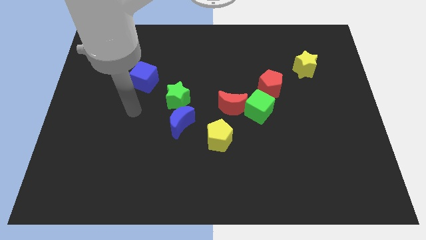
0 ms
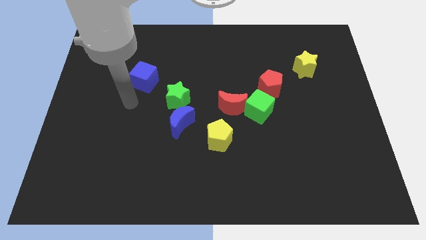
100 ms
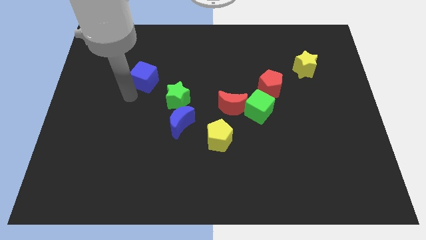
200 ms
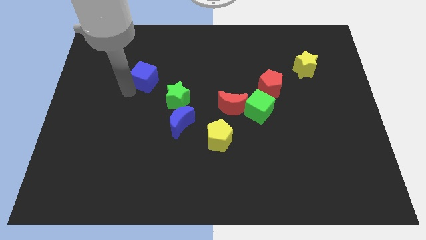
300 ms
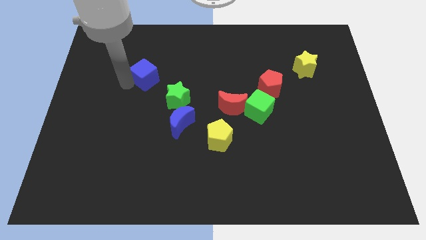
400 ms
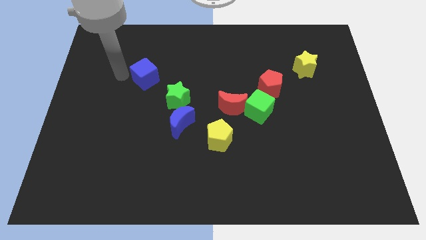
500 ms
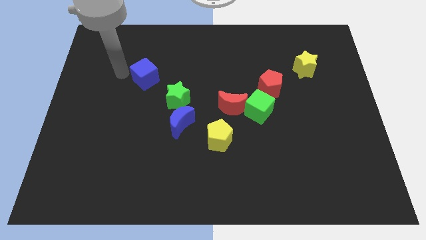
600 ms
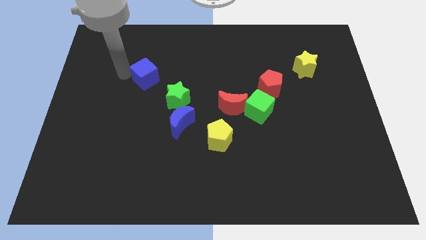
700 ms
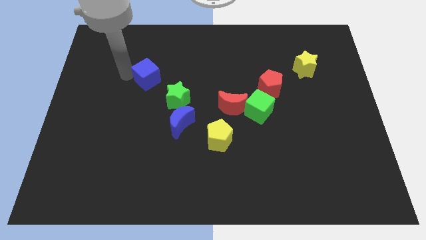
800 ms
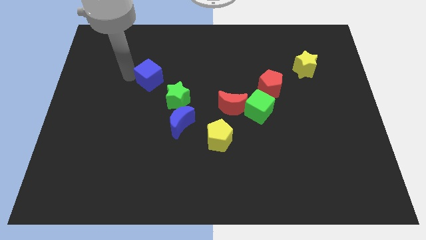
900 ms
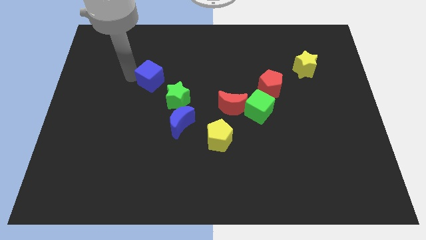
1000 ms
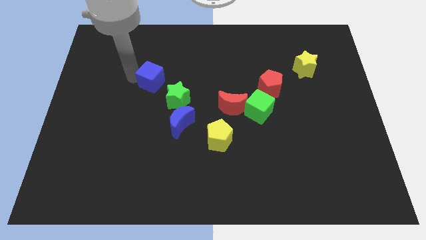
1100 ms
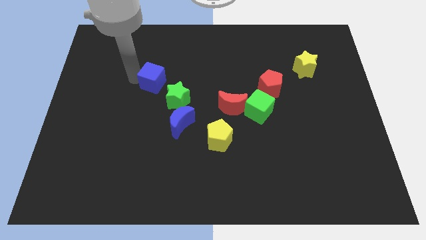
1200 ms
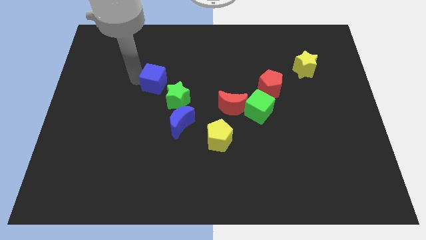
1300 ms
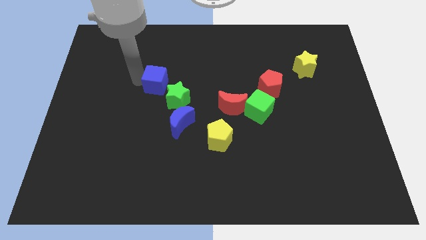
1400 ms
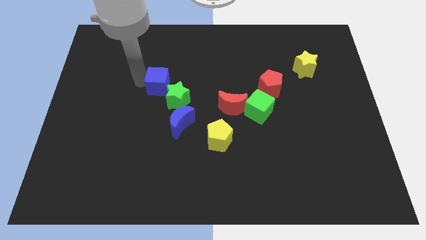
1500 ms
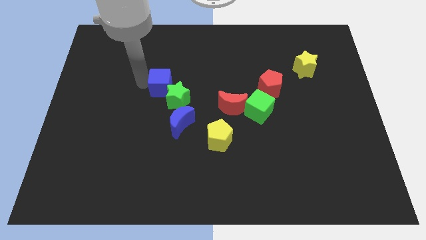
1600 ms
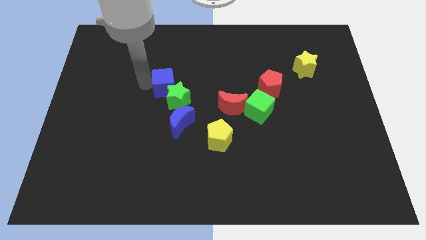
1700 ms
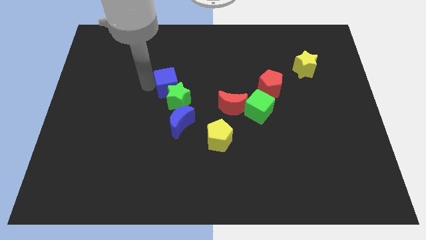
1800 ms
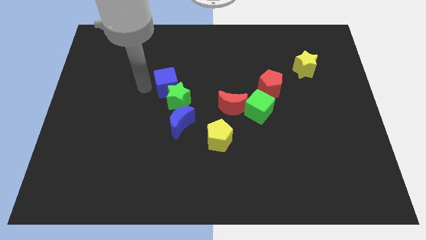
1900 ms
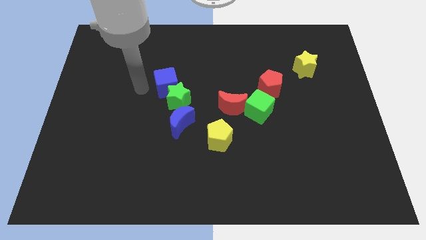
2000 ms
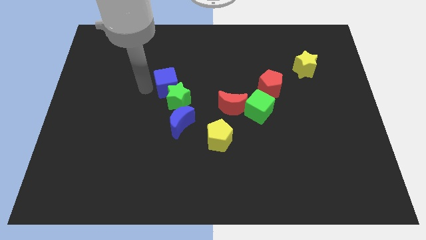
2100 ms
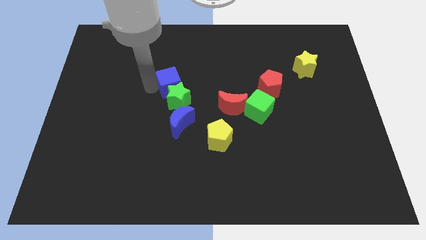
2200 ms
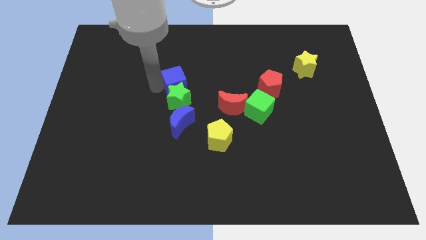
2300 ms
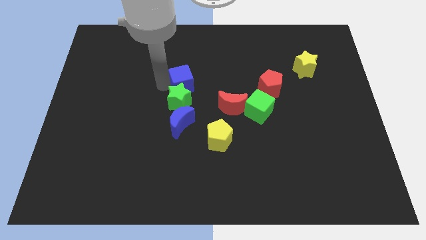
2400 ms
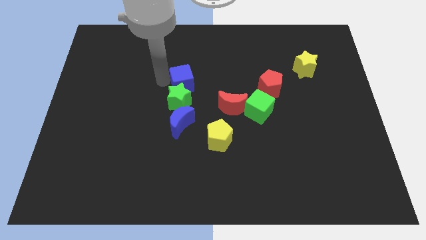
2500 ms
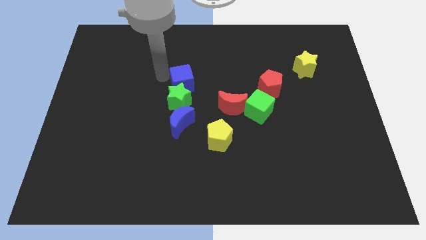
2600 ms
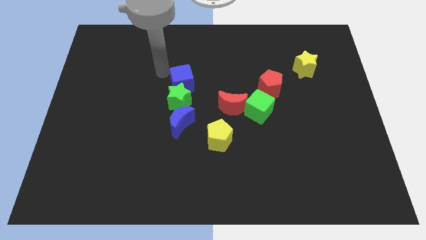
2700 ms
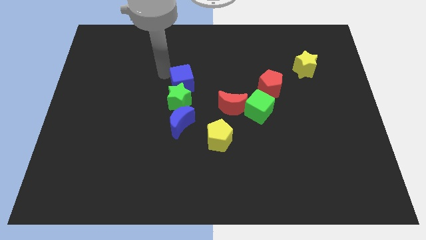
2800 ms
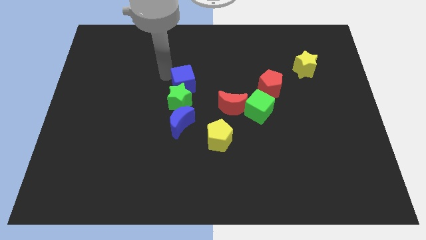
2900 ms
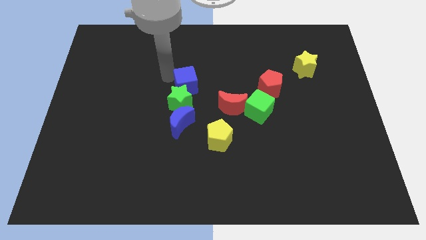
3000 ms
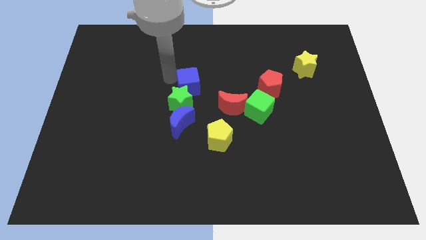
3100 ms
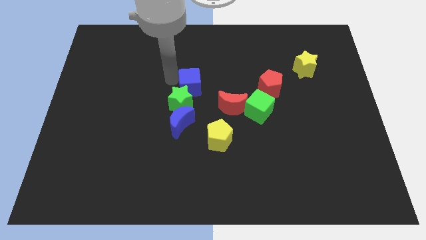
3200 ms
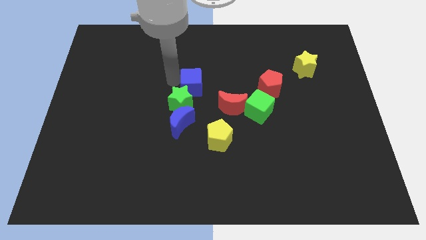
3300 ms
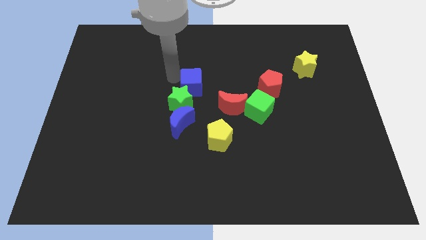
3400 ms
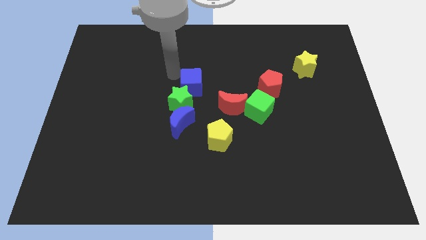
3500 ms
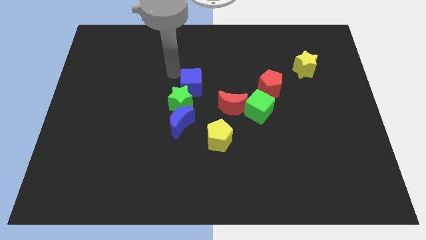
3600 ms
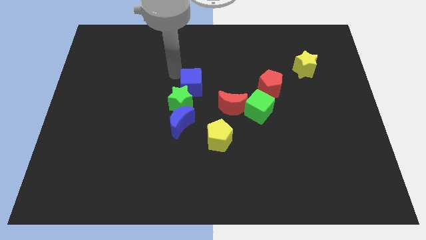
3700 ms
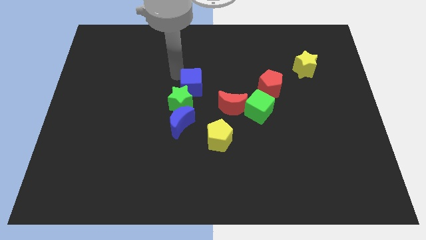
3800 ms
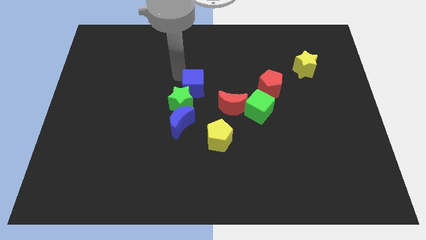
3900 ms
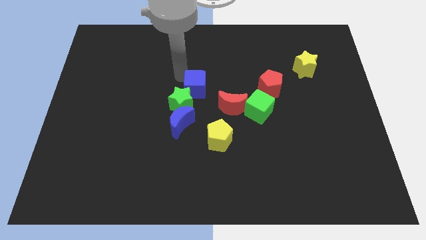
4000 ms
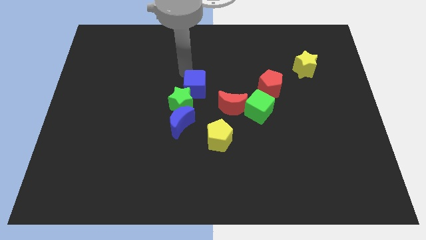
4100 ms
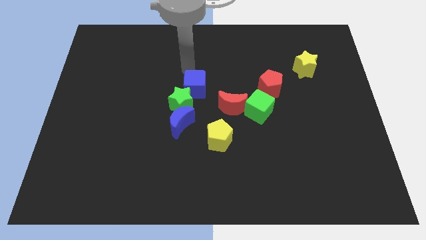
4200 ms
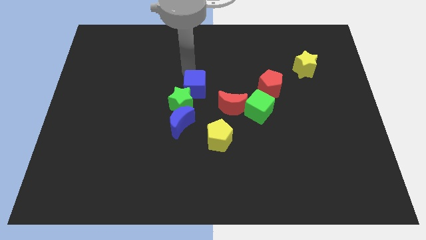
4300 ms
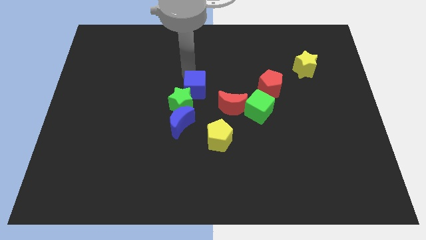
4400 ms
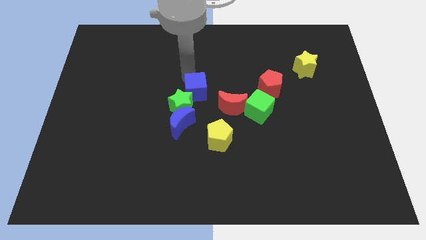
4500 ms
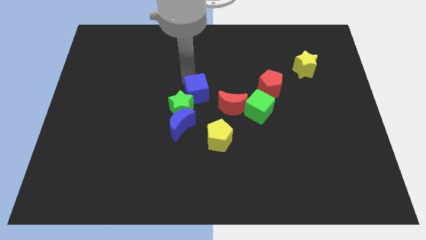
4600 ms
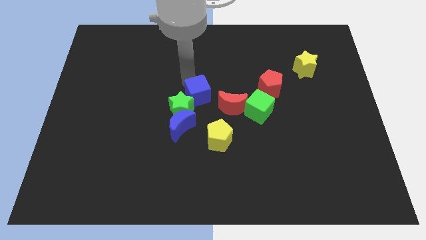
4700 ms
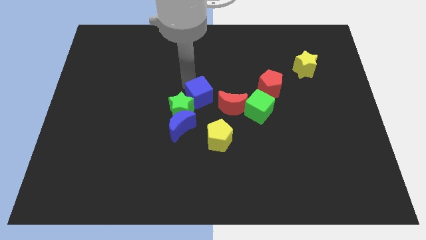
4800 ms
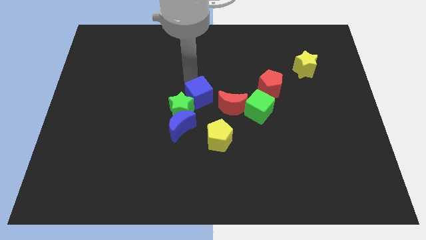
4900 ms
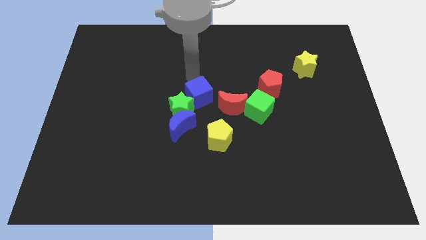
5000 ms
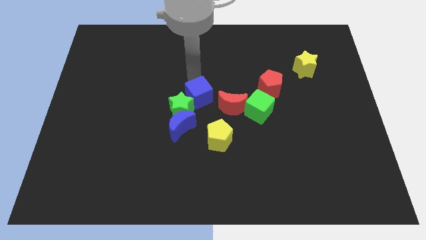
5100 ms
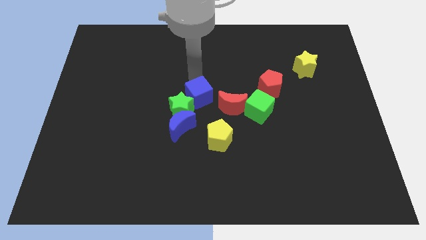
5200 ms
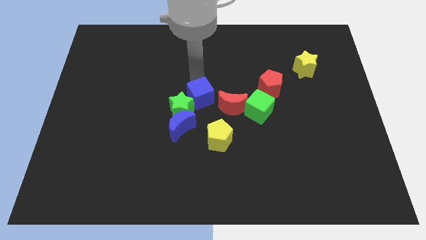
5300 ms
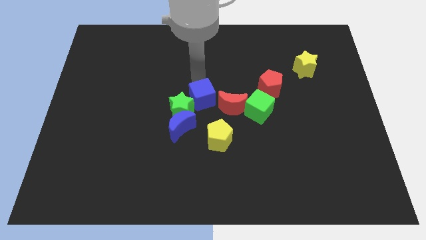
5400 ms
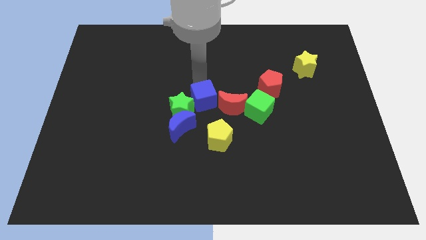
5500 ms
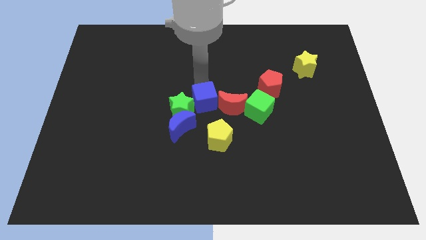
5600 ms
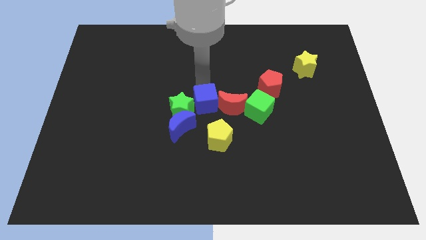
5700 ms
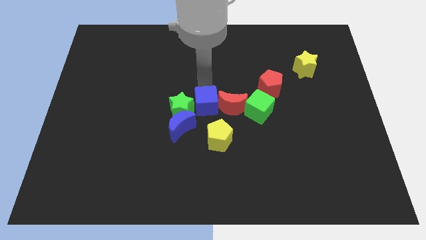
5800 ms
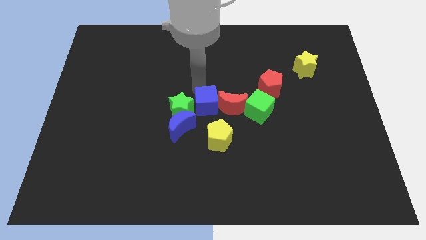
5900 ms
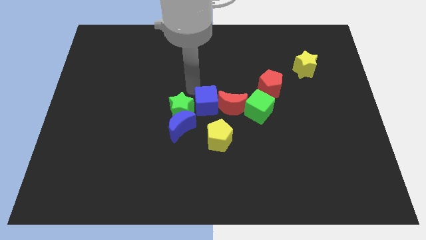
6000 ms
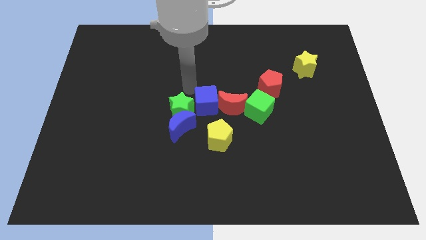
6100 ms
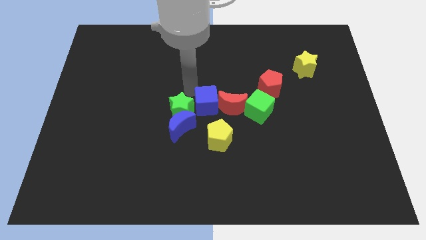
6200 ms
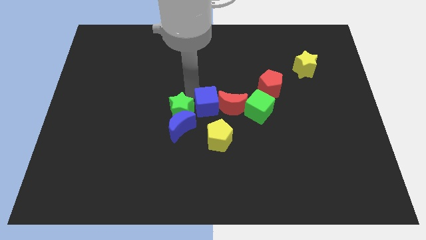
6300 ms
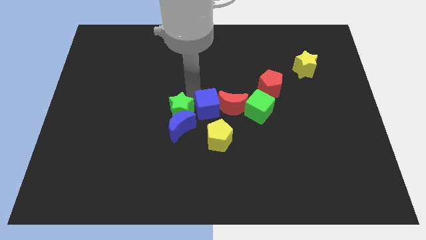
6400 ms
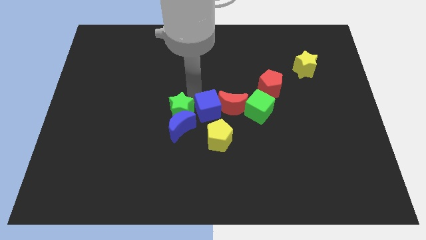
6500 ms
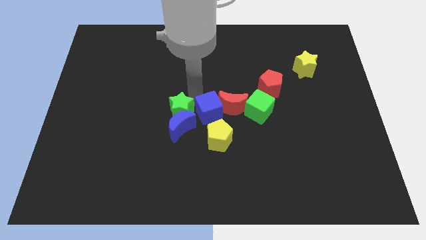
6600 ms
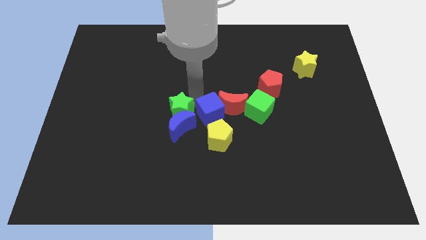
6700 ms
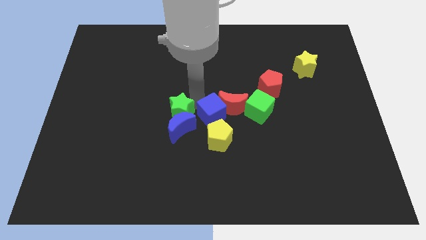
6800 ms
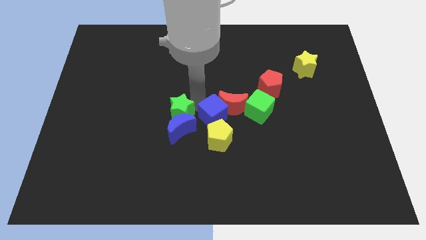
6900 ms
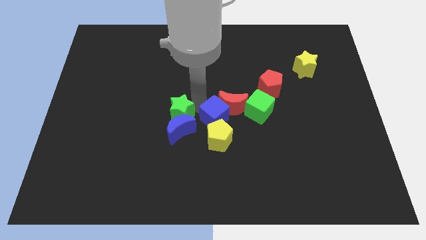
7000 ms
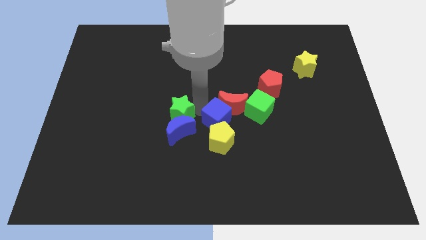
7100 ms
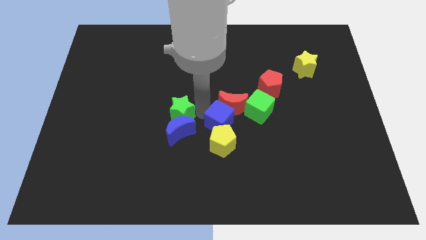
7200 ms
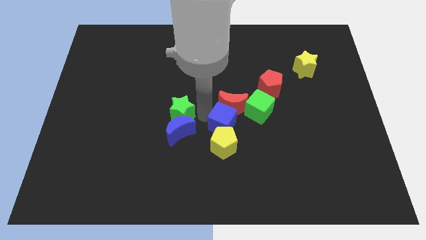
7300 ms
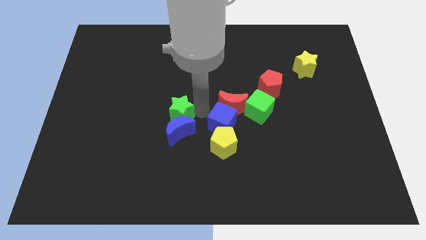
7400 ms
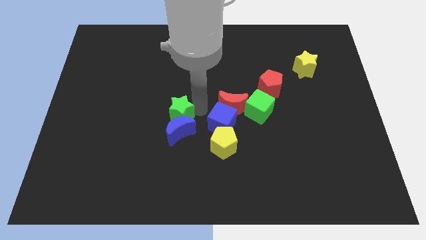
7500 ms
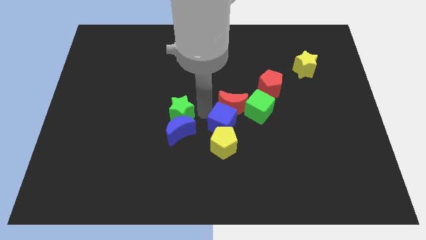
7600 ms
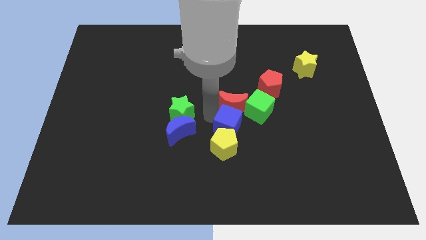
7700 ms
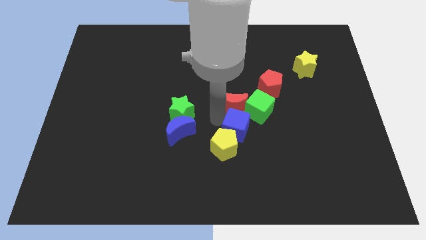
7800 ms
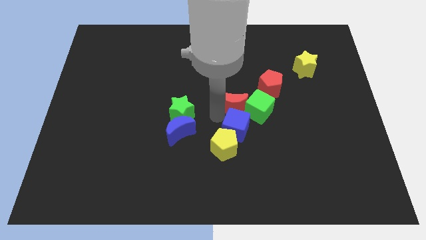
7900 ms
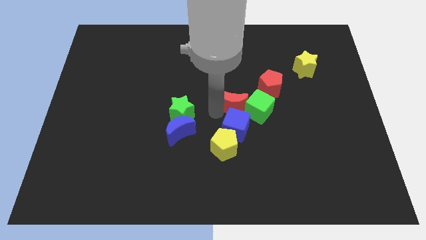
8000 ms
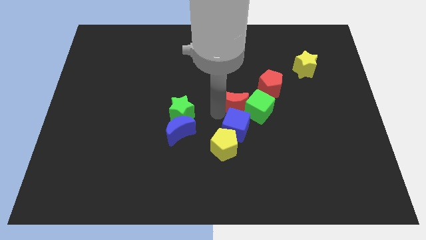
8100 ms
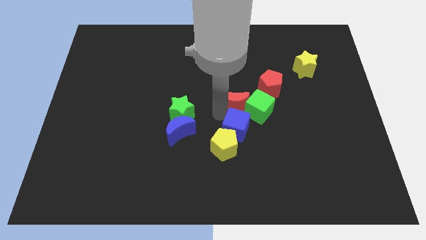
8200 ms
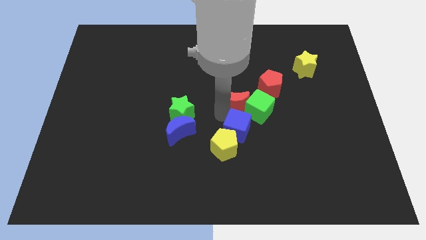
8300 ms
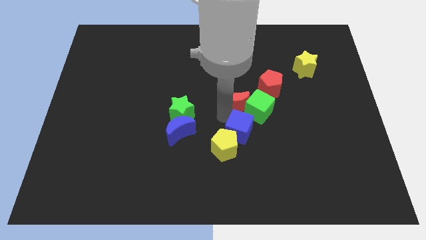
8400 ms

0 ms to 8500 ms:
put the blue cube to the bottom of the green cube
